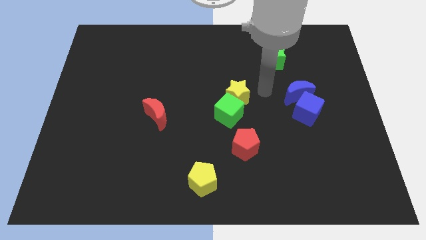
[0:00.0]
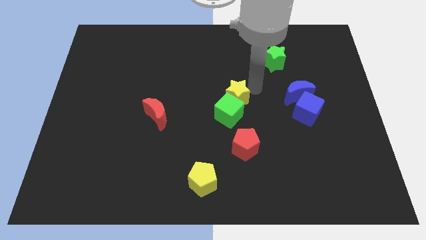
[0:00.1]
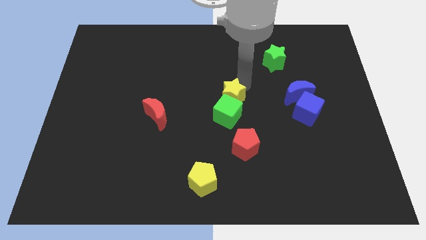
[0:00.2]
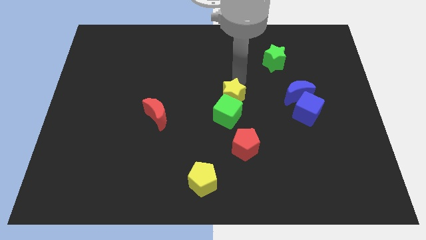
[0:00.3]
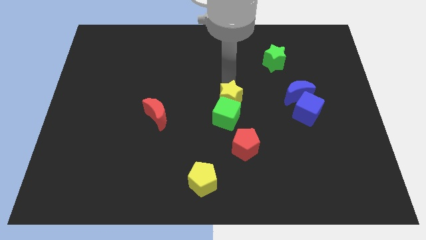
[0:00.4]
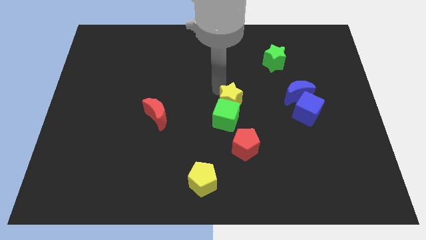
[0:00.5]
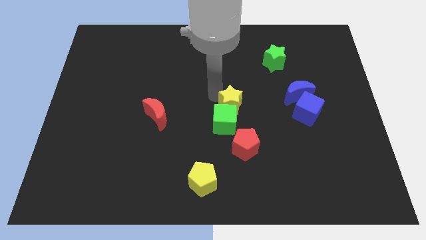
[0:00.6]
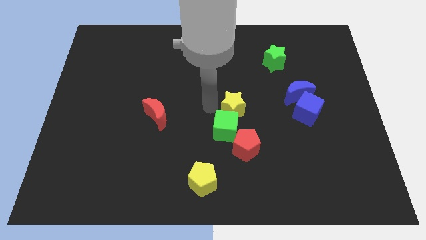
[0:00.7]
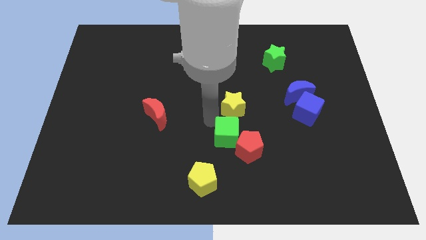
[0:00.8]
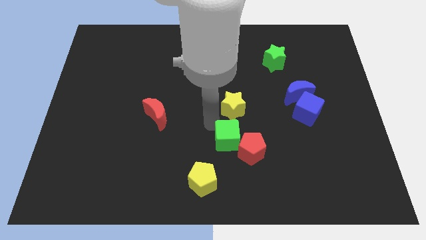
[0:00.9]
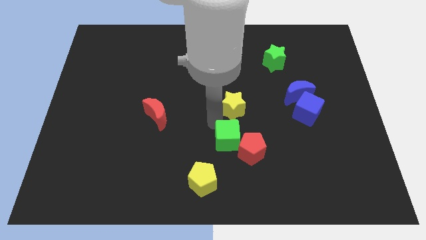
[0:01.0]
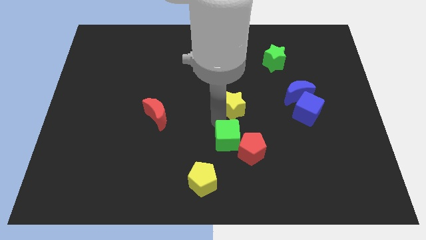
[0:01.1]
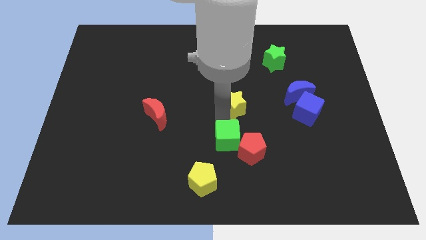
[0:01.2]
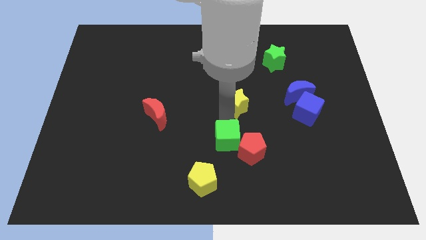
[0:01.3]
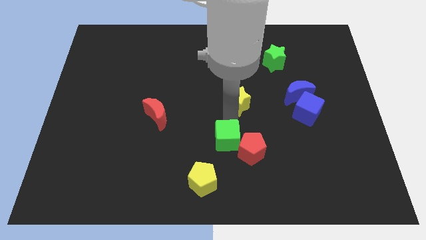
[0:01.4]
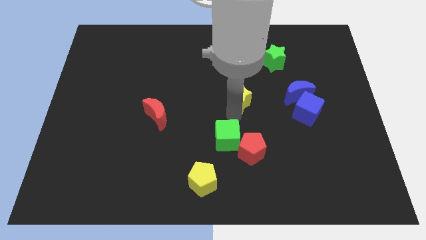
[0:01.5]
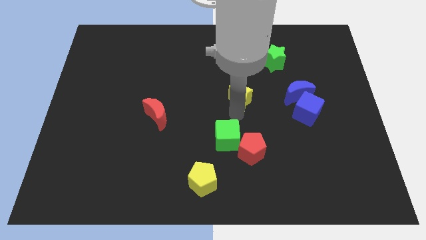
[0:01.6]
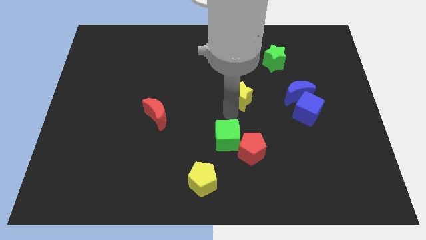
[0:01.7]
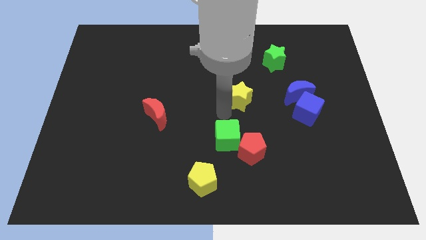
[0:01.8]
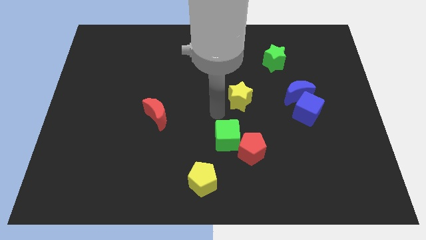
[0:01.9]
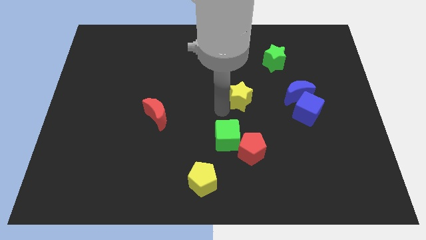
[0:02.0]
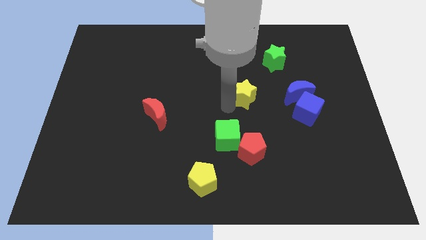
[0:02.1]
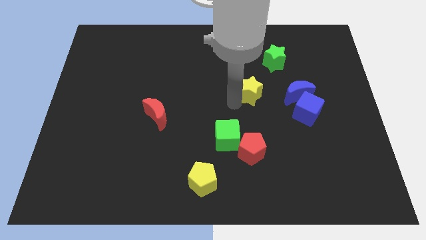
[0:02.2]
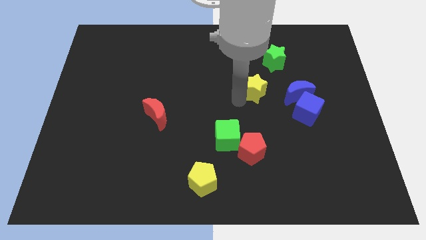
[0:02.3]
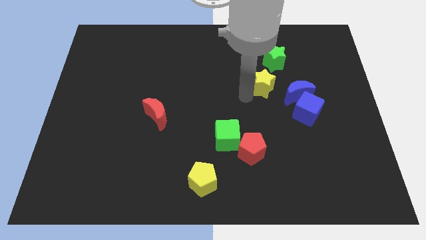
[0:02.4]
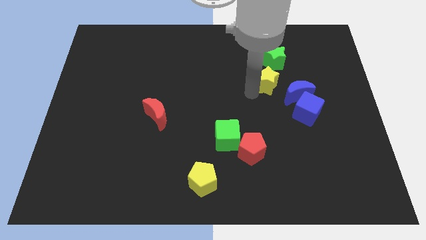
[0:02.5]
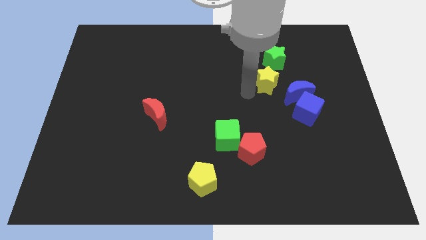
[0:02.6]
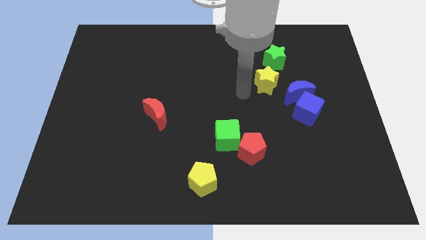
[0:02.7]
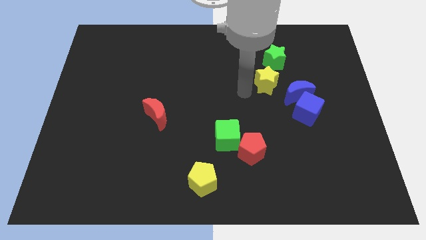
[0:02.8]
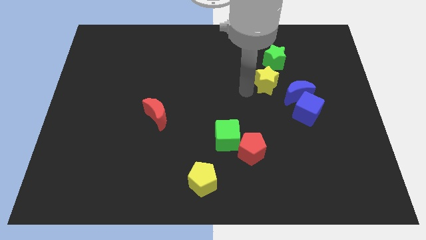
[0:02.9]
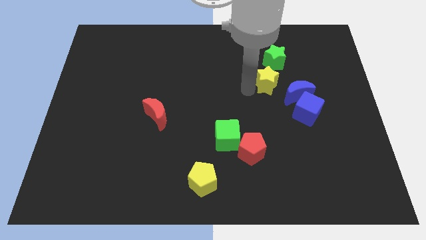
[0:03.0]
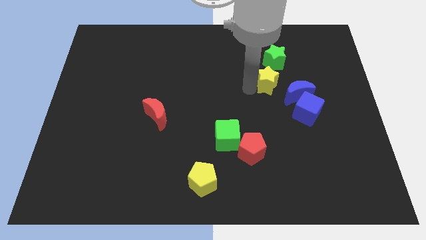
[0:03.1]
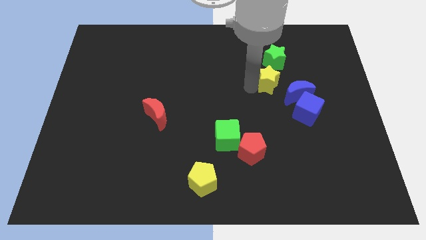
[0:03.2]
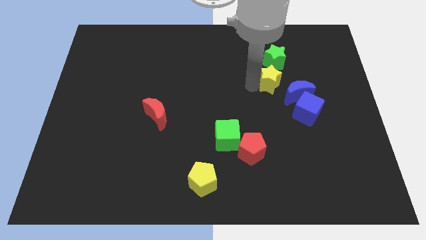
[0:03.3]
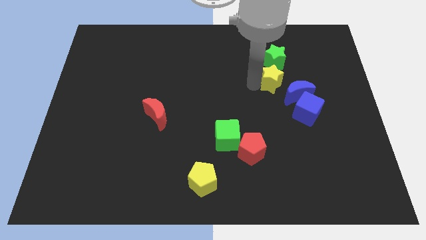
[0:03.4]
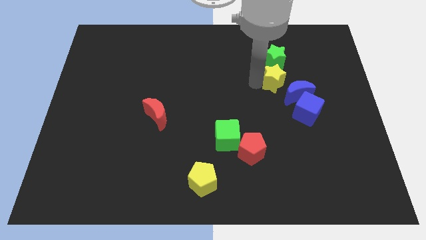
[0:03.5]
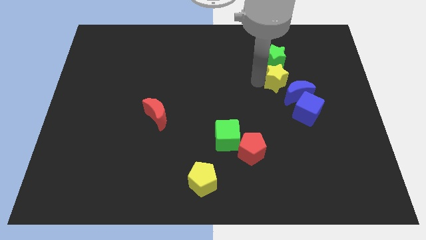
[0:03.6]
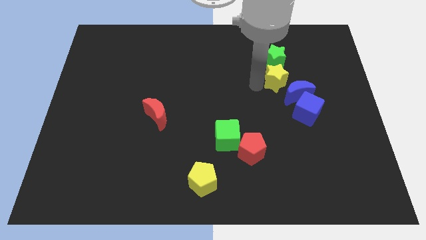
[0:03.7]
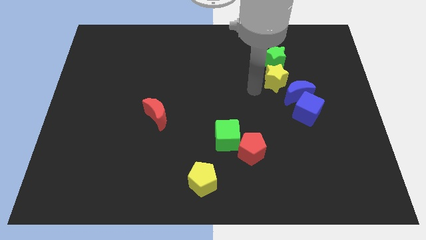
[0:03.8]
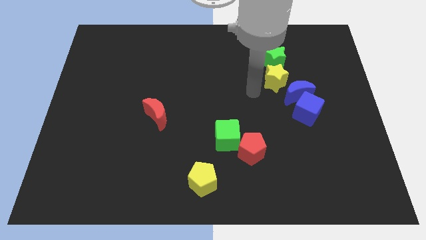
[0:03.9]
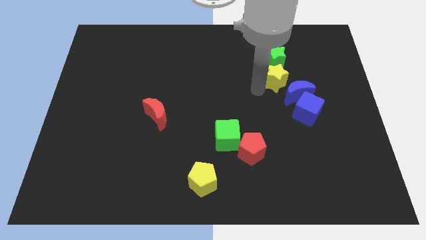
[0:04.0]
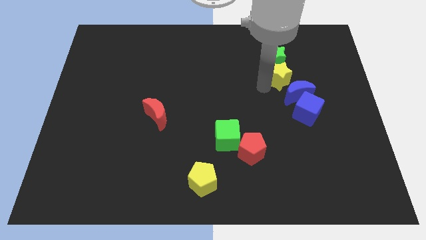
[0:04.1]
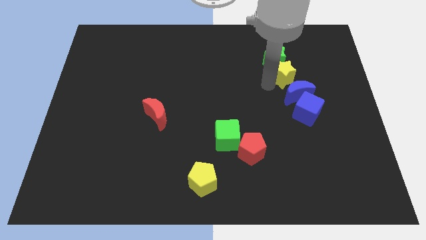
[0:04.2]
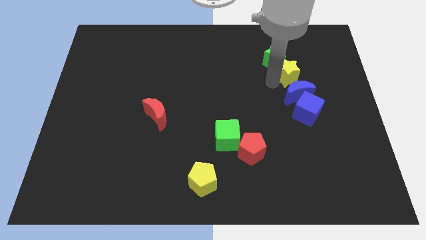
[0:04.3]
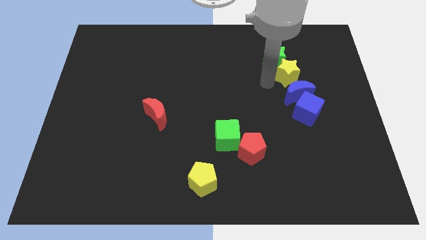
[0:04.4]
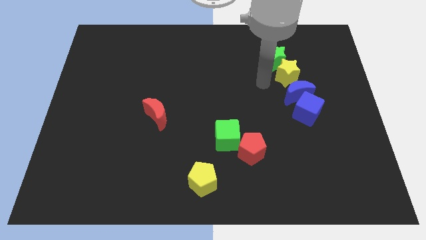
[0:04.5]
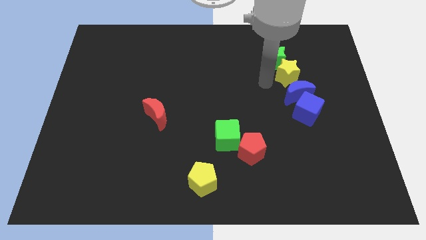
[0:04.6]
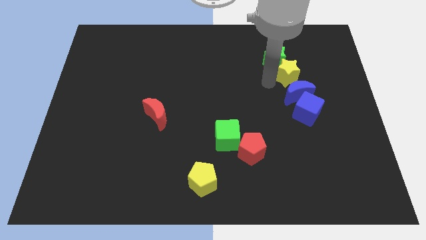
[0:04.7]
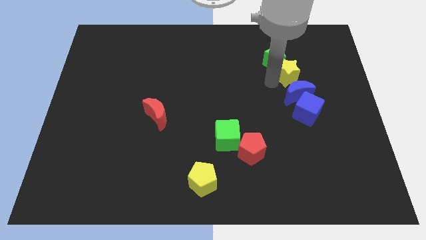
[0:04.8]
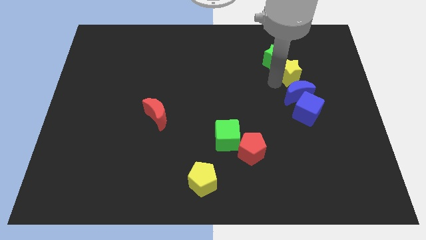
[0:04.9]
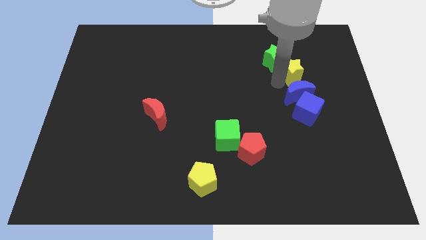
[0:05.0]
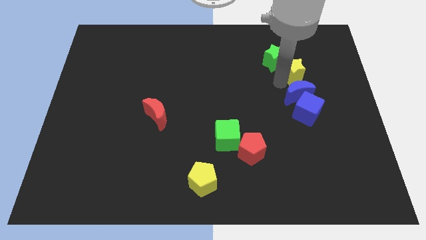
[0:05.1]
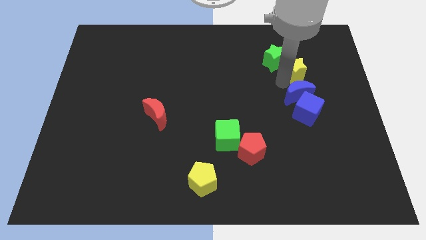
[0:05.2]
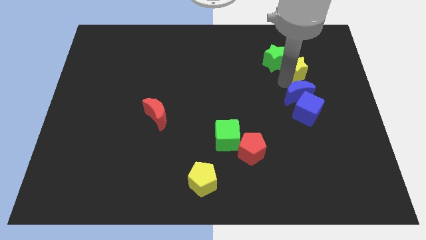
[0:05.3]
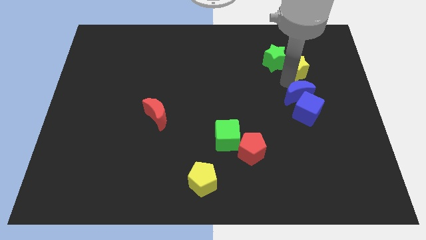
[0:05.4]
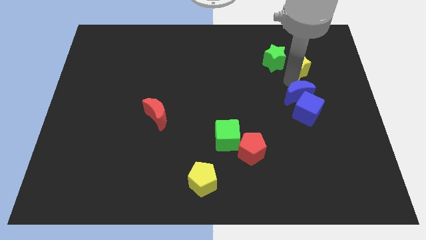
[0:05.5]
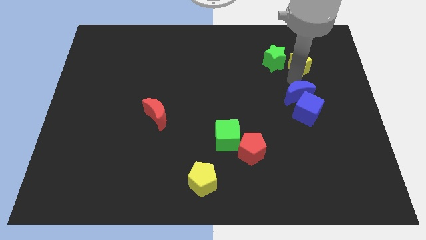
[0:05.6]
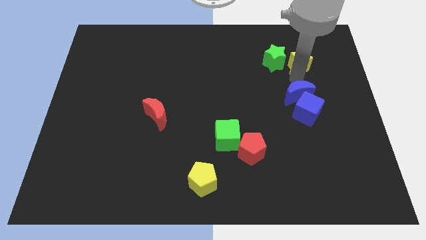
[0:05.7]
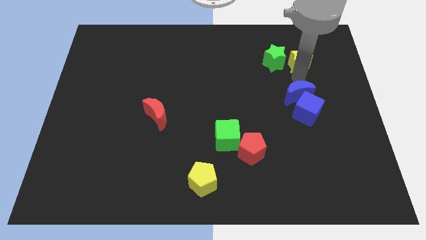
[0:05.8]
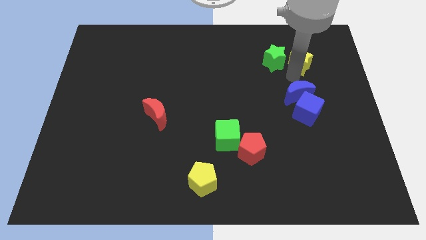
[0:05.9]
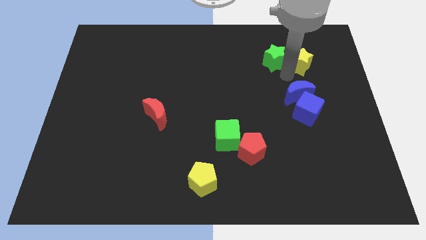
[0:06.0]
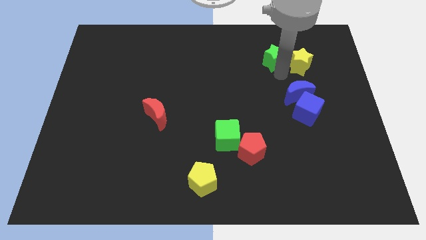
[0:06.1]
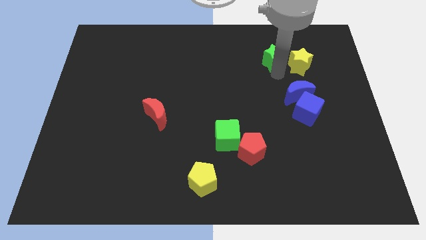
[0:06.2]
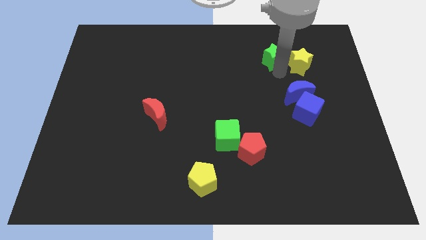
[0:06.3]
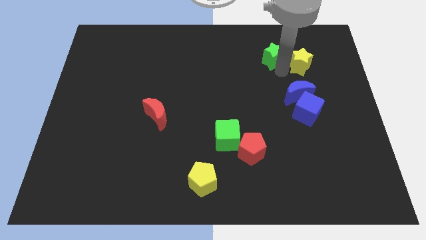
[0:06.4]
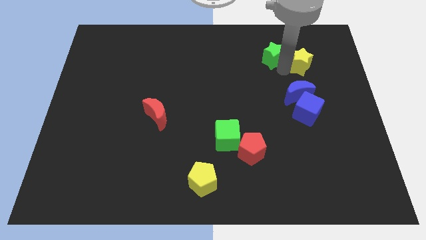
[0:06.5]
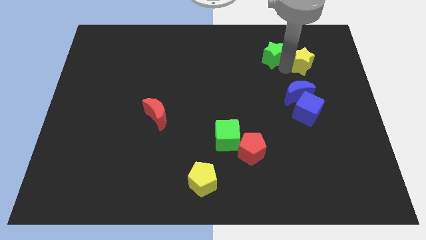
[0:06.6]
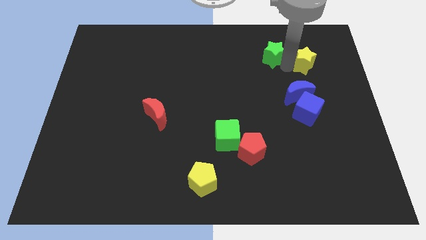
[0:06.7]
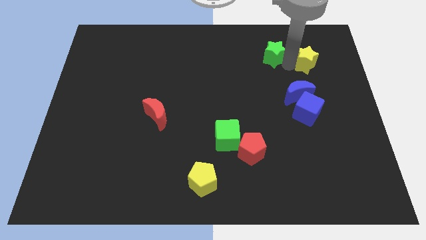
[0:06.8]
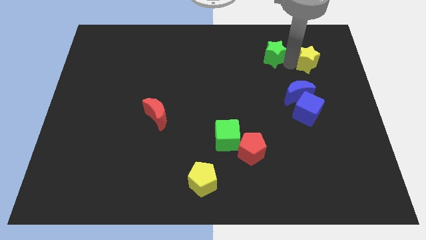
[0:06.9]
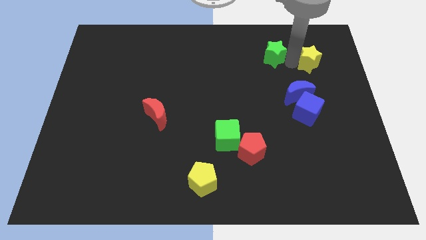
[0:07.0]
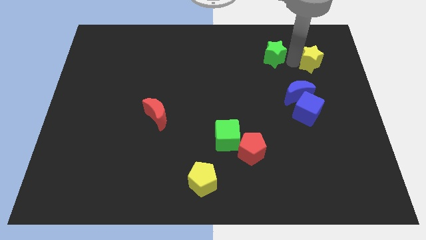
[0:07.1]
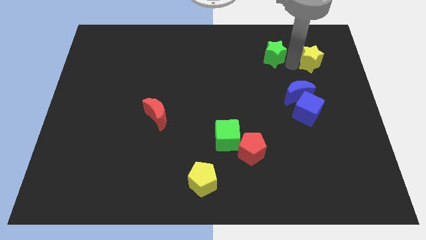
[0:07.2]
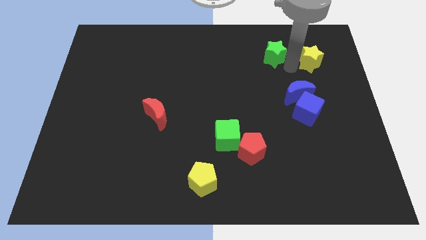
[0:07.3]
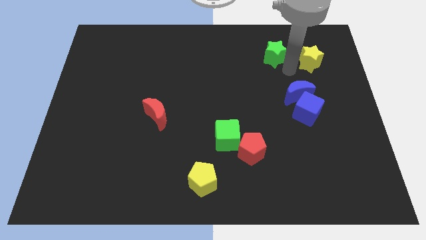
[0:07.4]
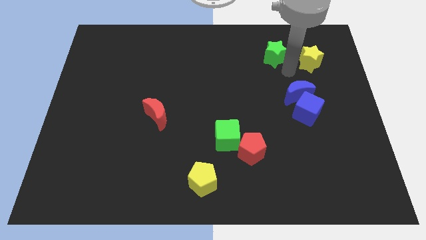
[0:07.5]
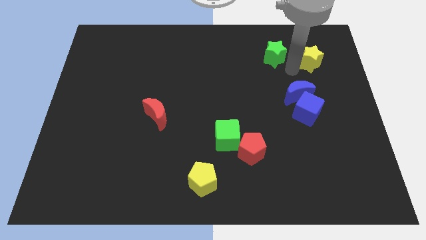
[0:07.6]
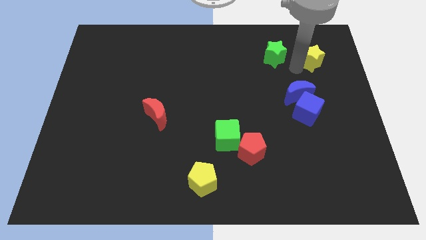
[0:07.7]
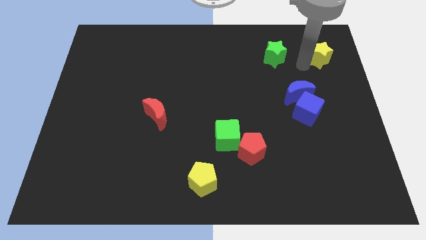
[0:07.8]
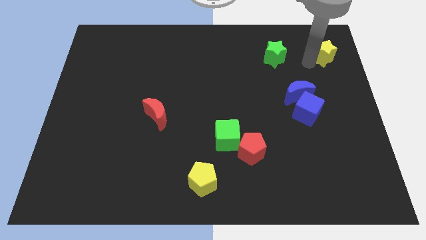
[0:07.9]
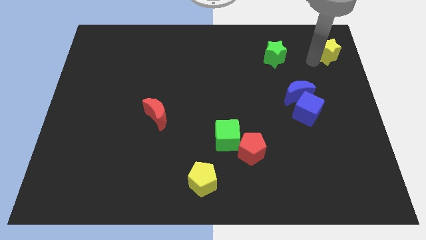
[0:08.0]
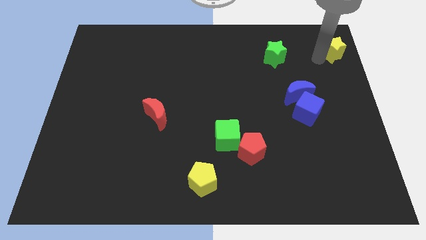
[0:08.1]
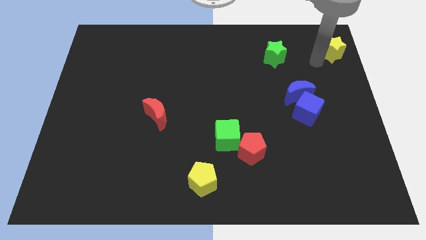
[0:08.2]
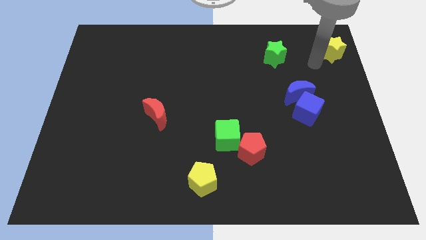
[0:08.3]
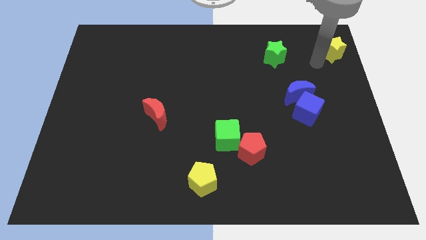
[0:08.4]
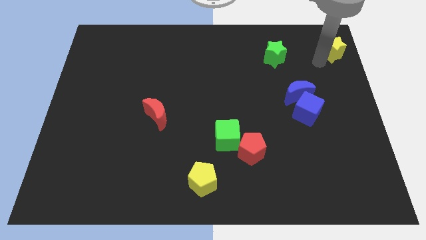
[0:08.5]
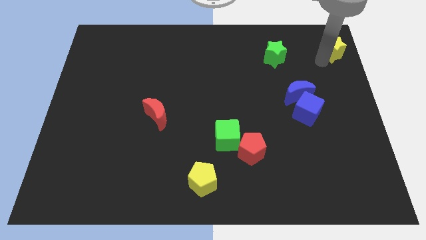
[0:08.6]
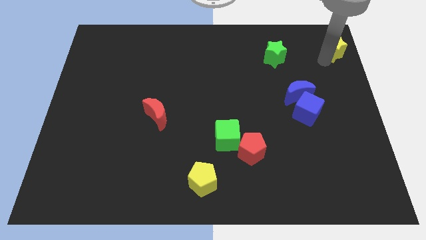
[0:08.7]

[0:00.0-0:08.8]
slide the yellow star to the top right
